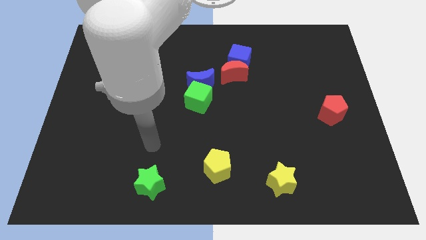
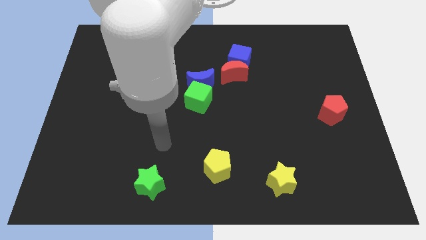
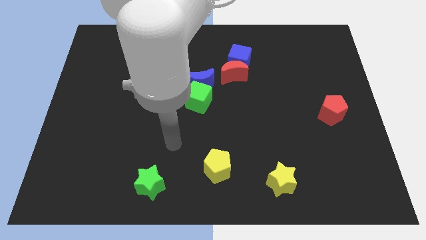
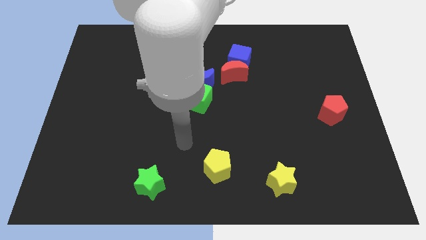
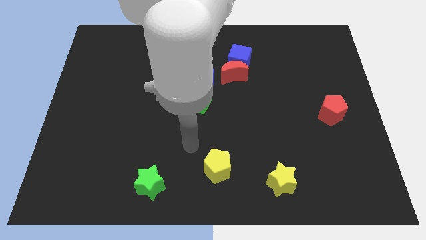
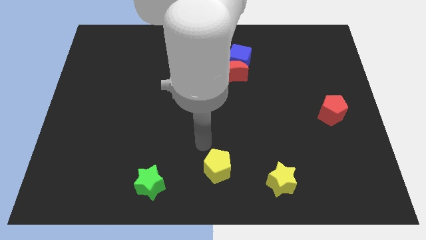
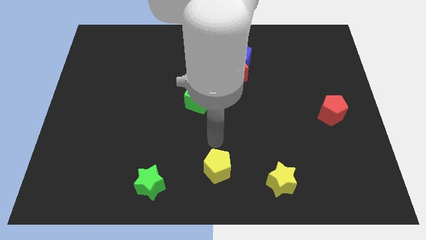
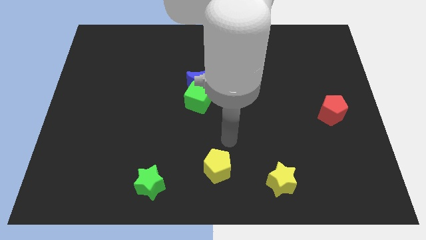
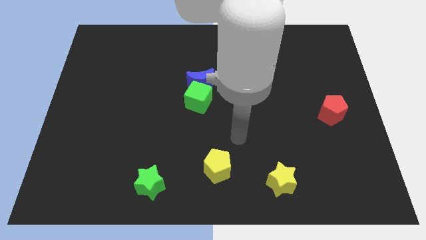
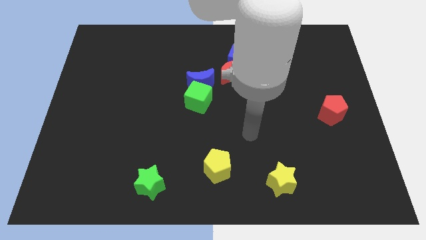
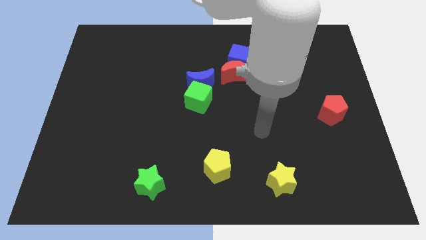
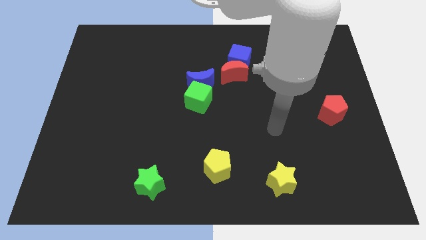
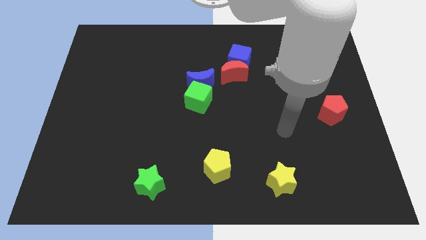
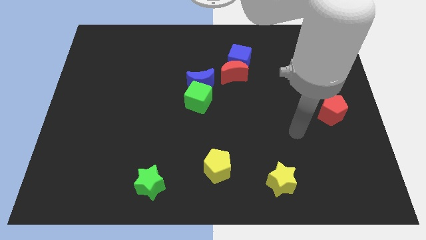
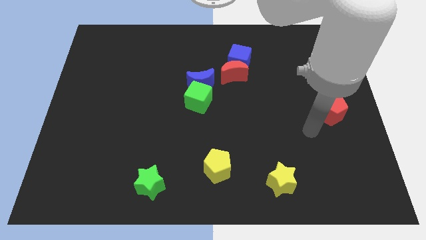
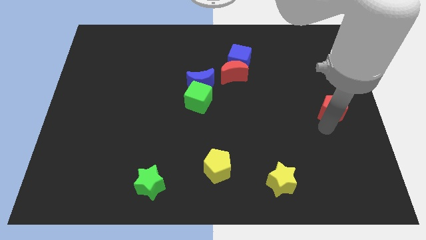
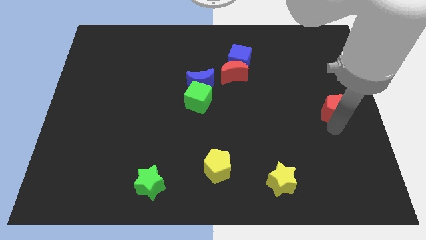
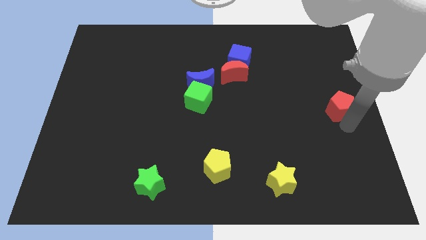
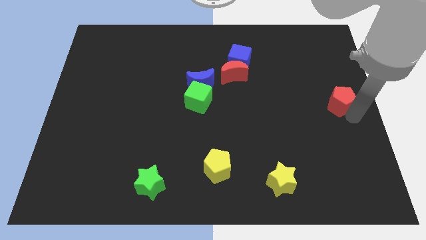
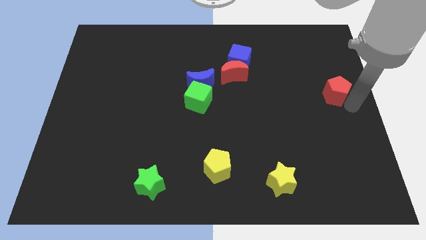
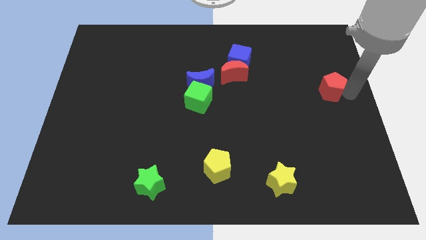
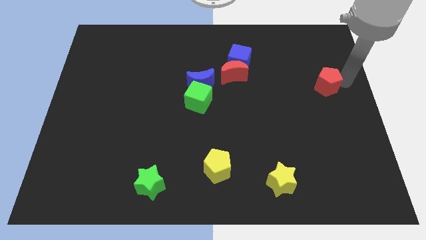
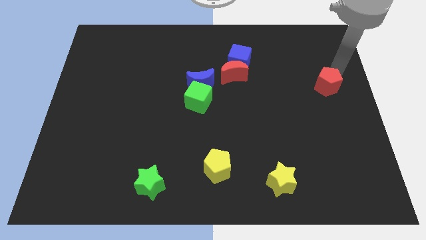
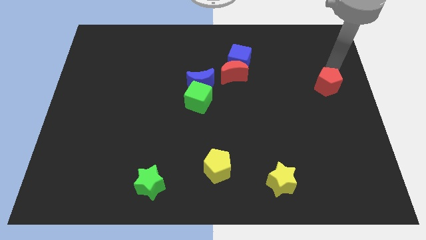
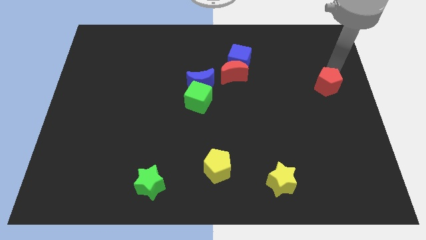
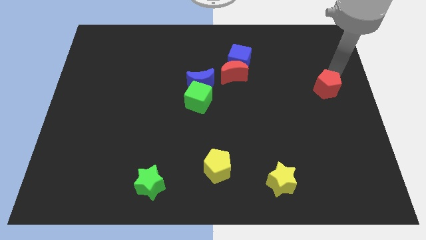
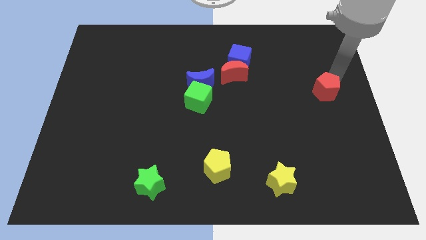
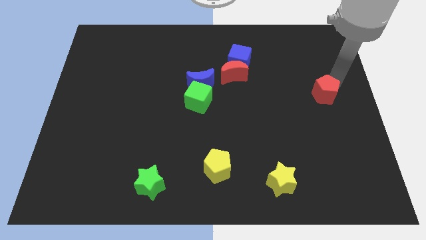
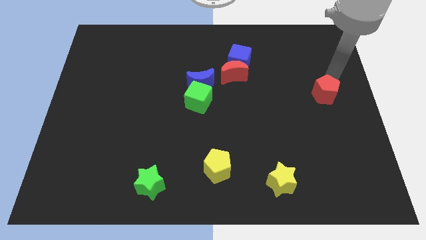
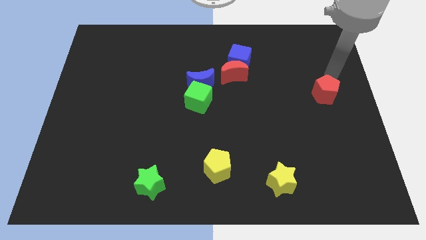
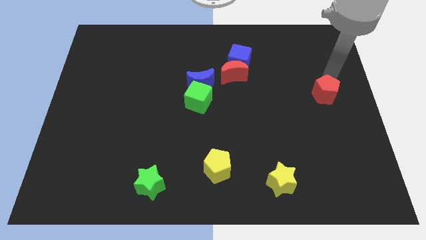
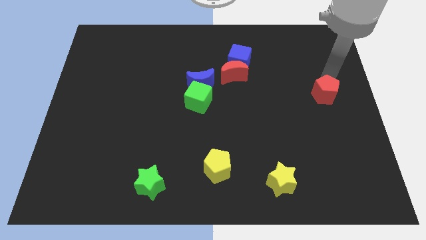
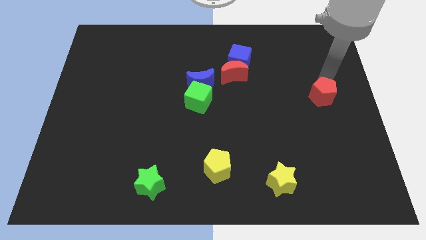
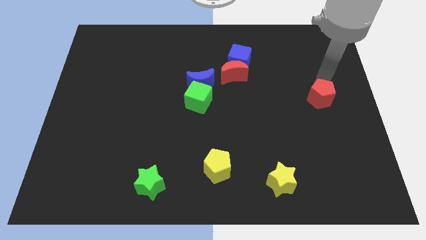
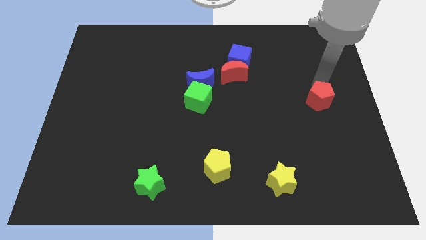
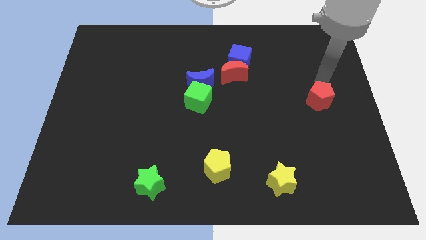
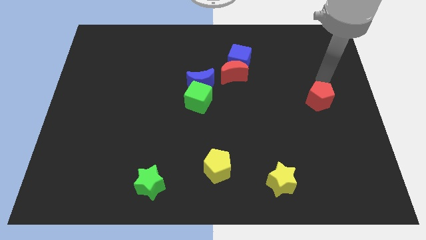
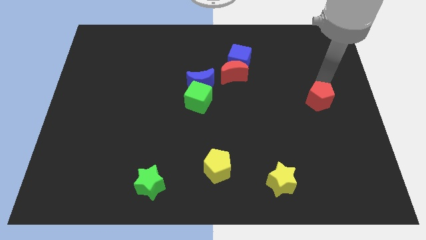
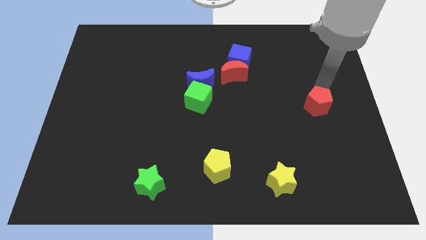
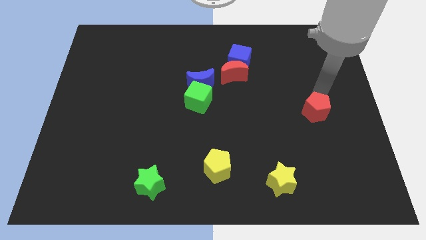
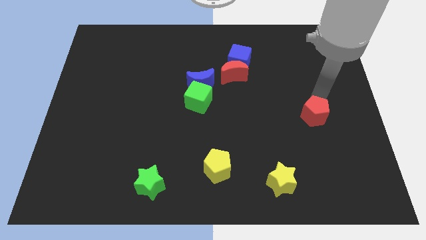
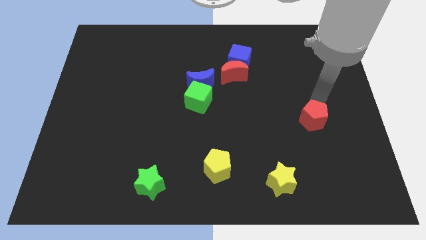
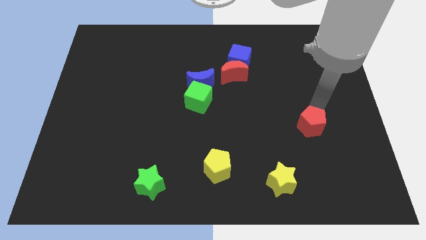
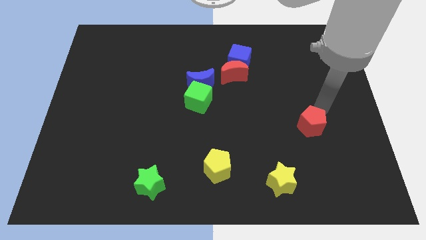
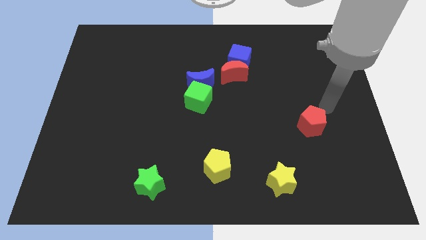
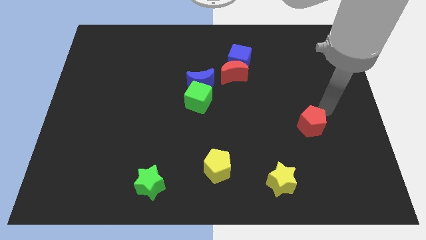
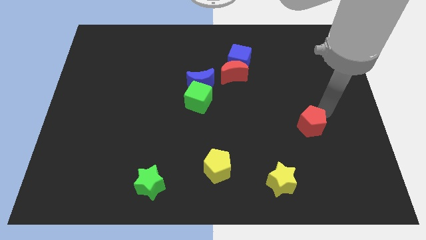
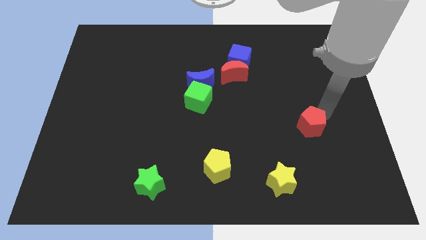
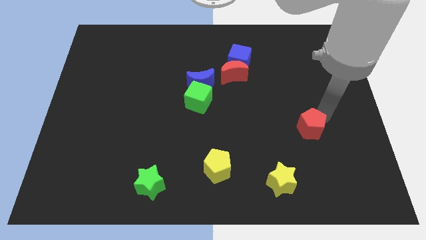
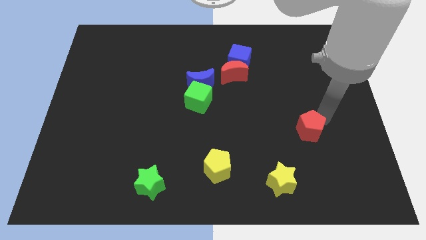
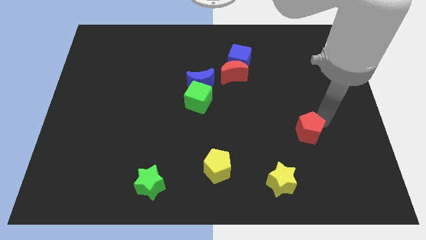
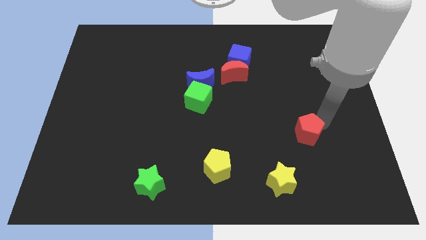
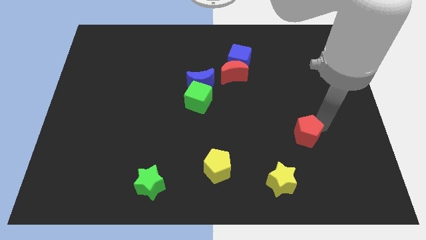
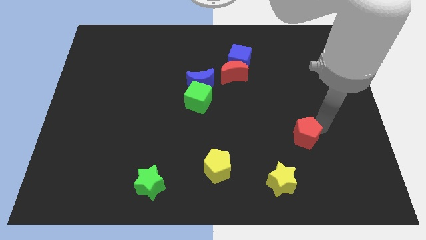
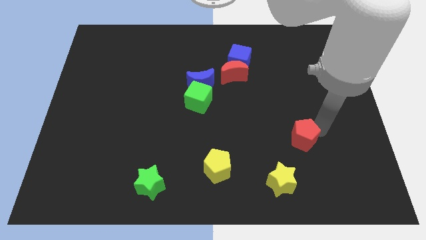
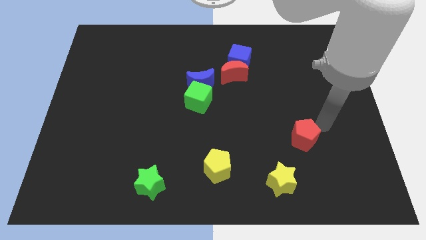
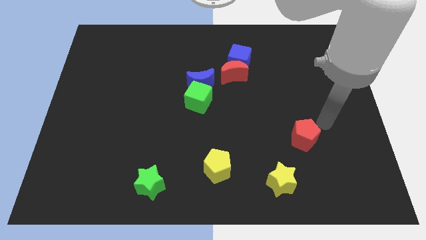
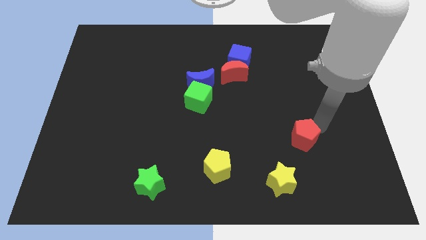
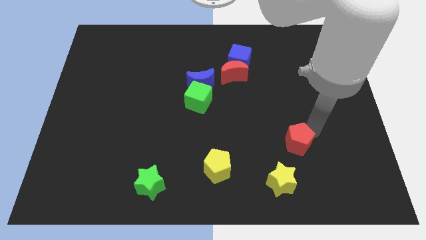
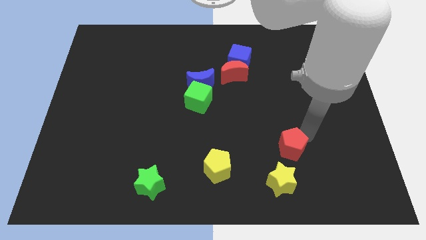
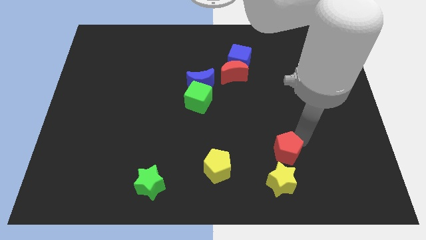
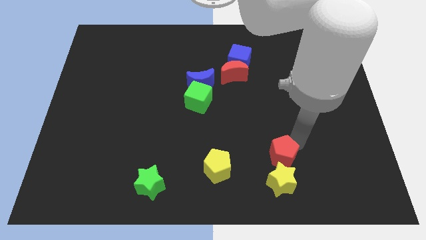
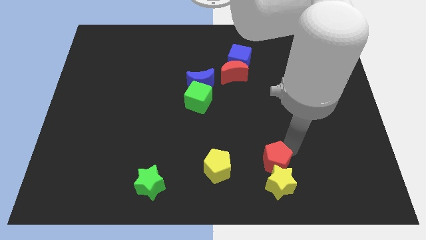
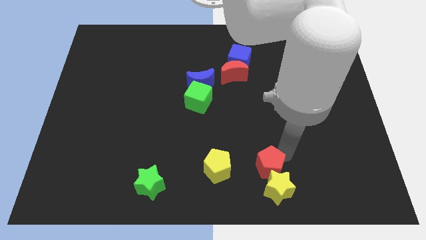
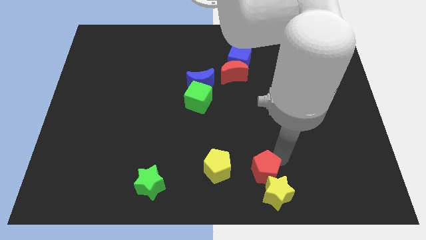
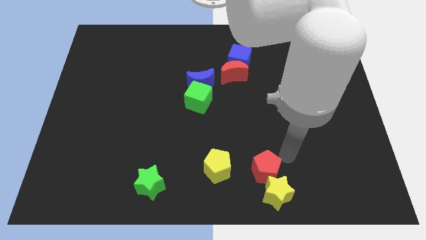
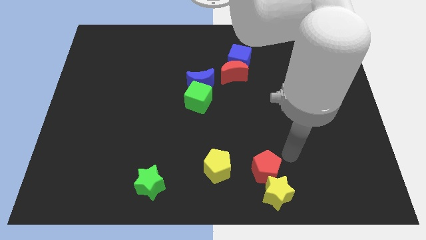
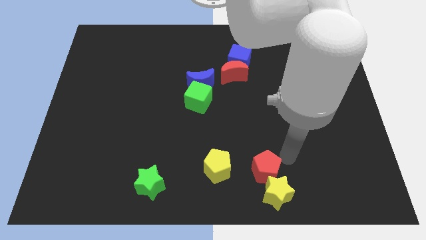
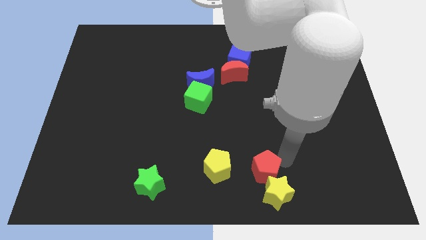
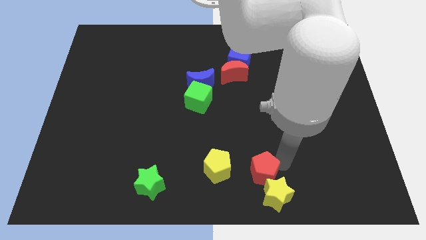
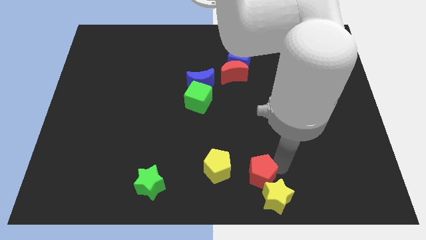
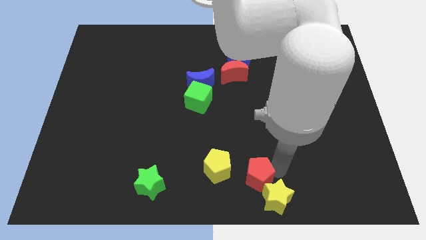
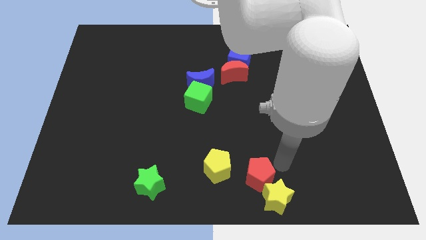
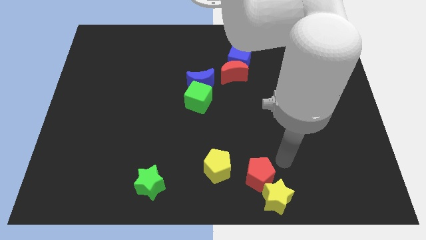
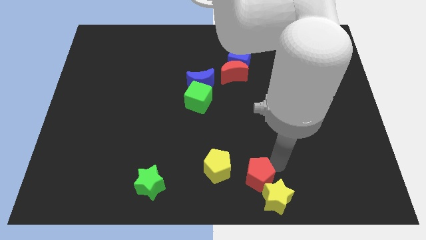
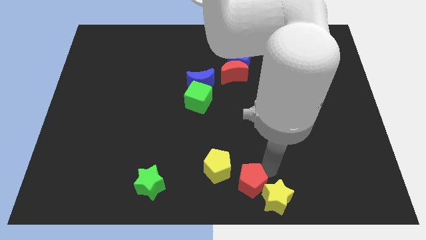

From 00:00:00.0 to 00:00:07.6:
put the red pentagon left of the yellow star
